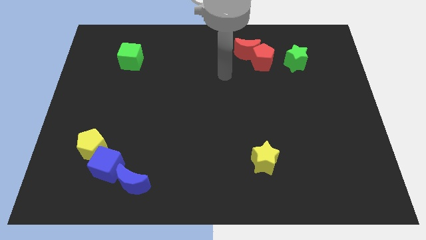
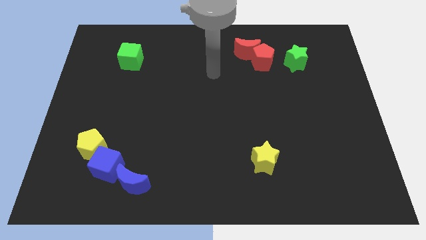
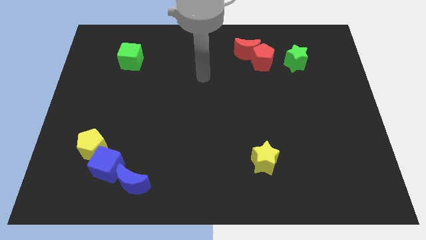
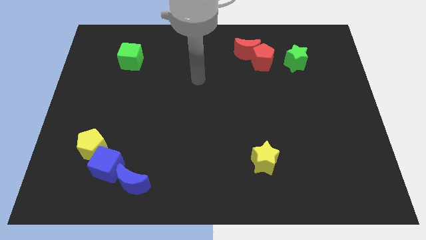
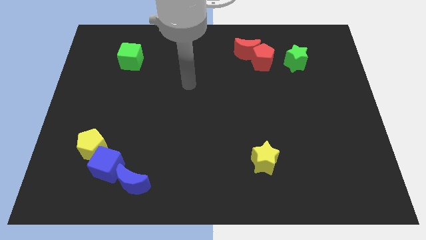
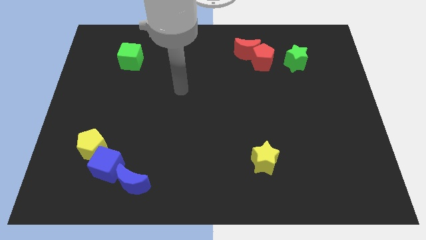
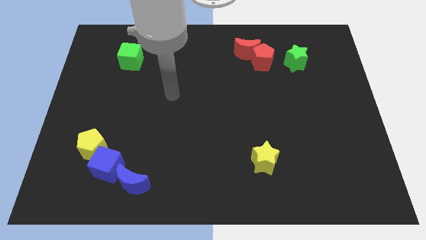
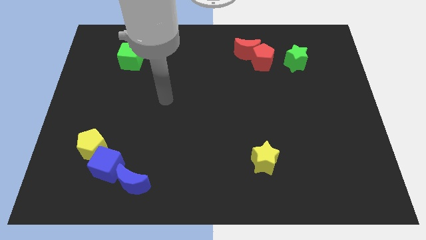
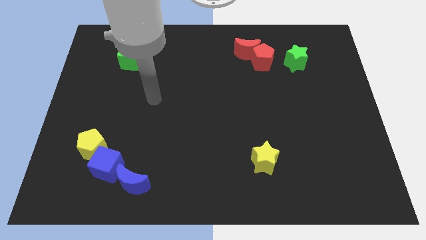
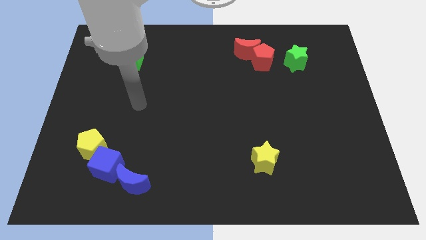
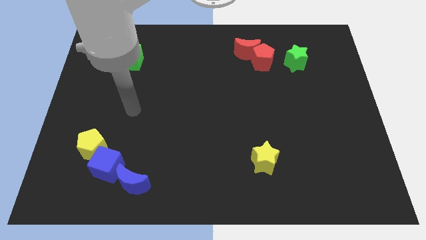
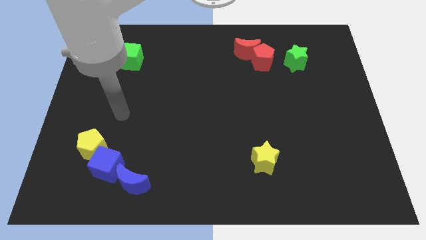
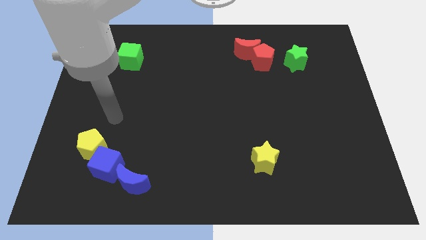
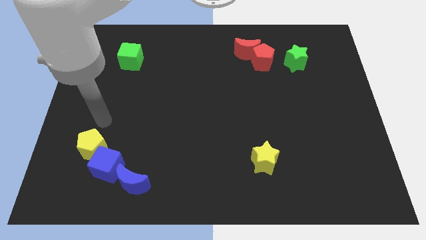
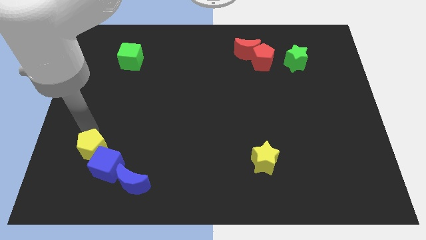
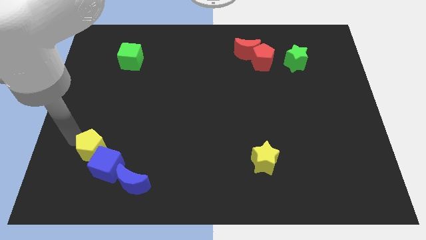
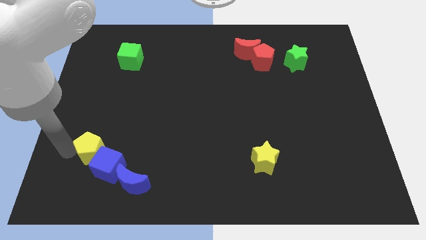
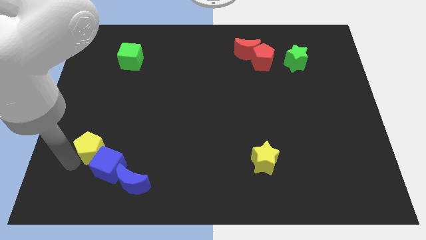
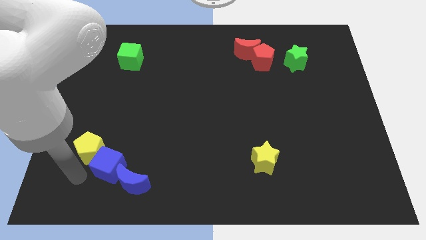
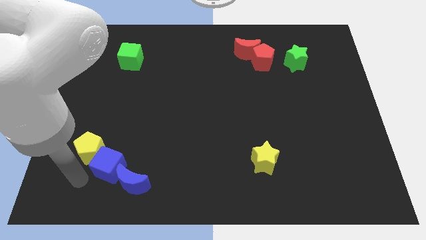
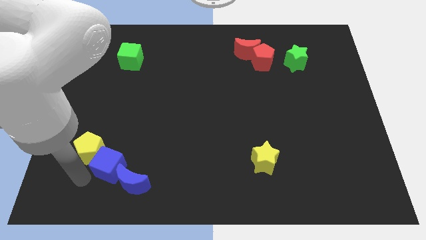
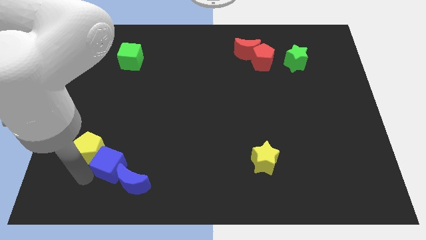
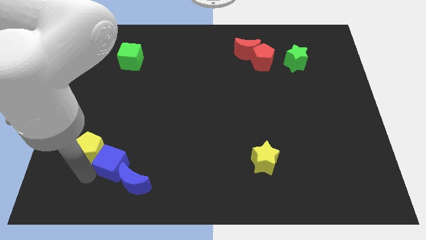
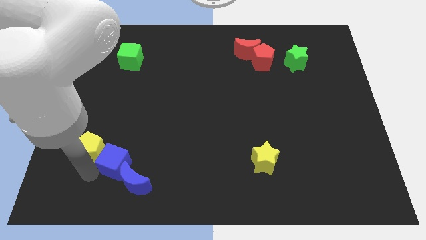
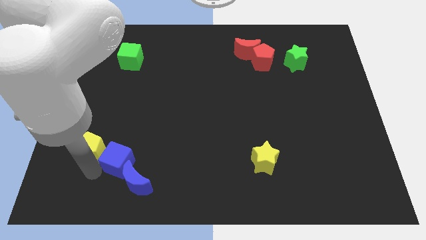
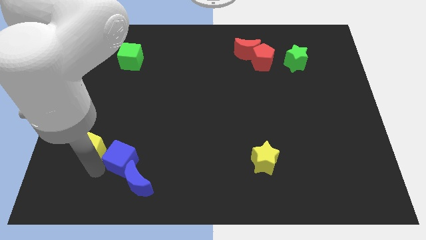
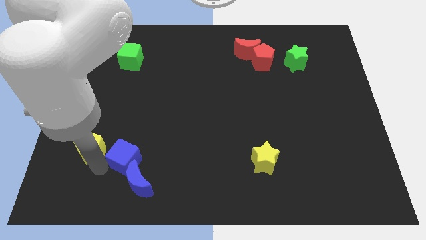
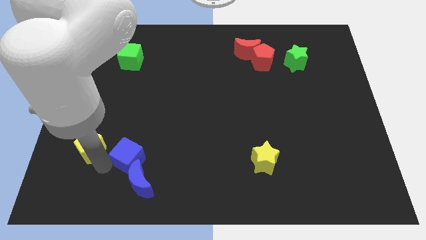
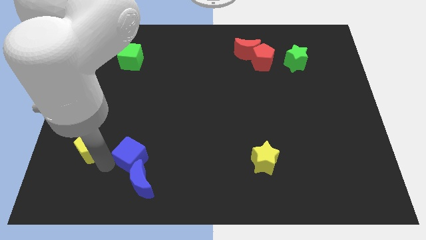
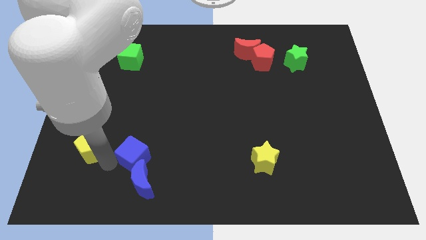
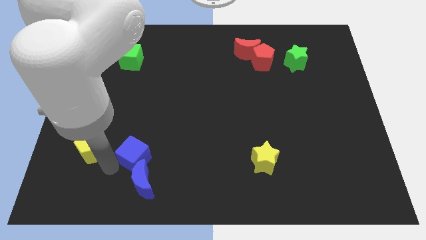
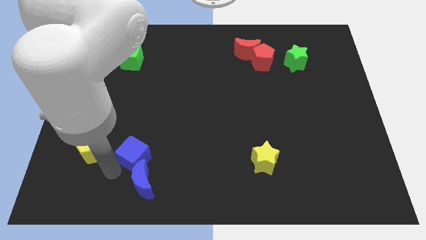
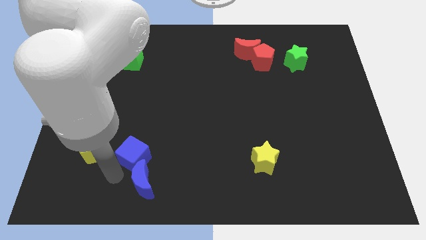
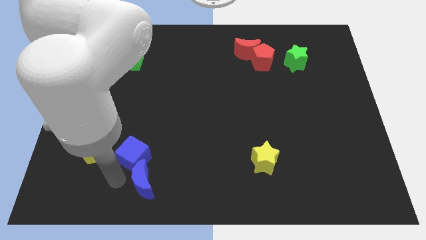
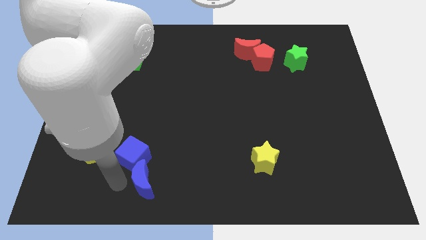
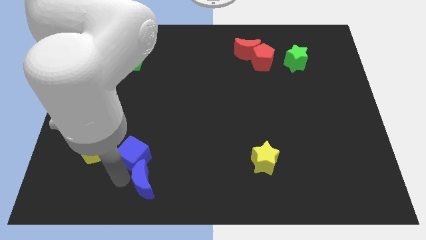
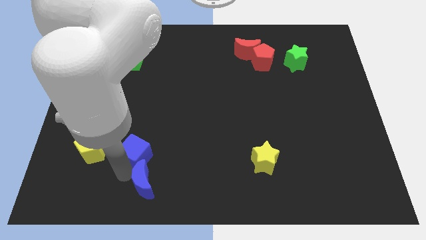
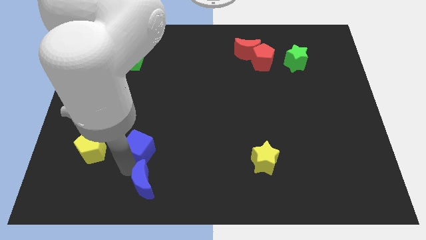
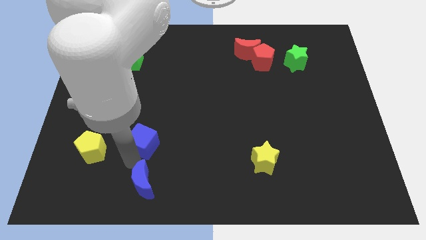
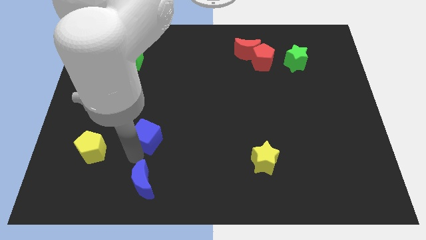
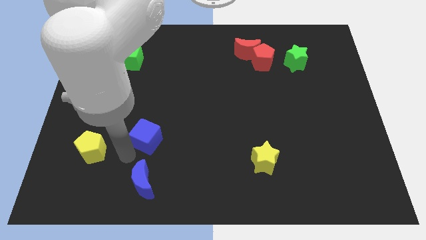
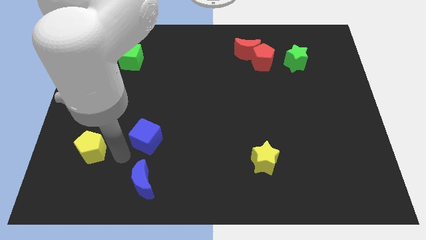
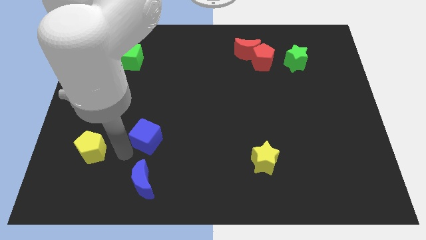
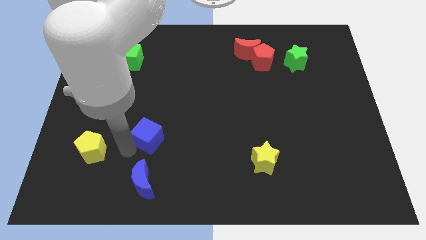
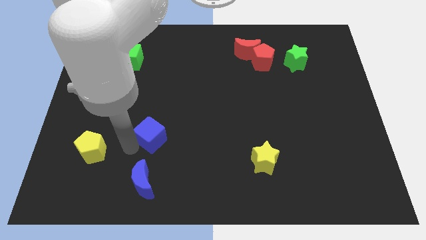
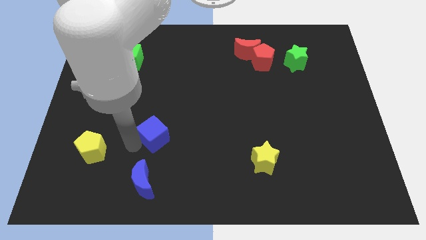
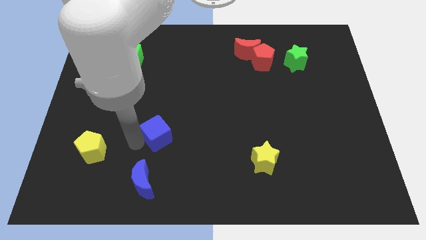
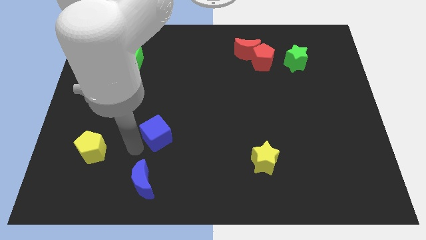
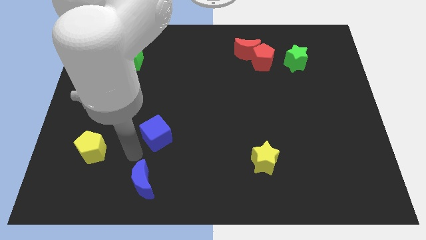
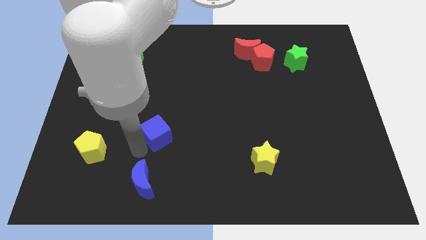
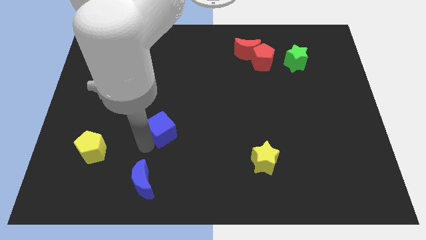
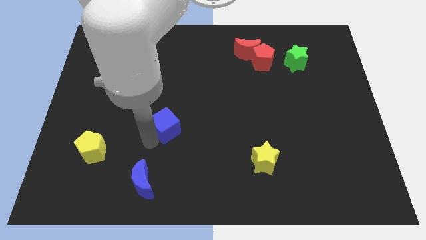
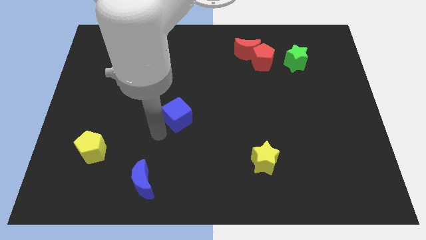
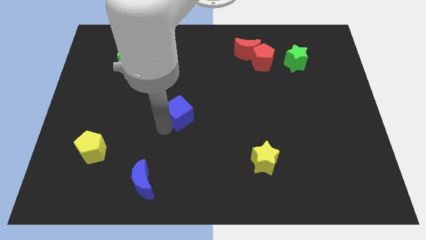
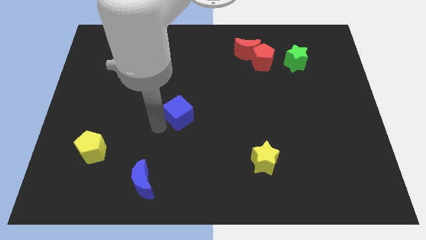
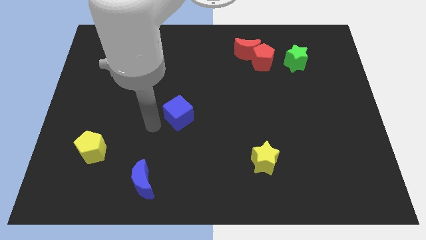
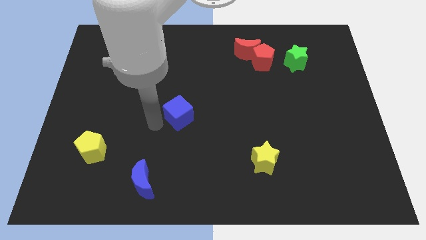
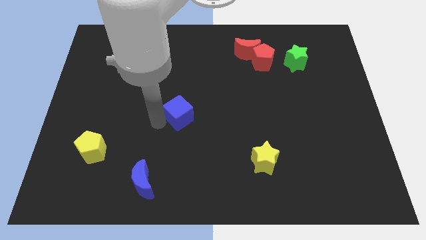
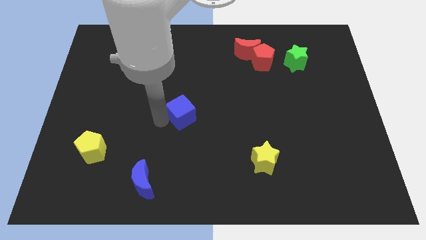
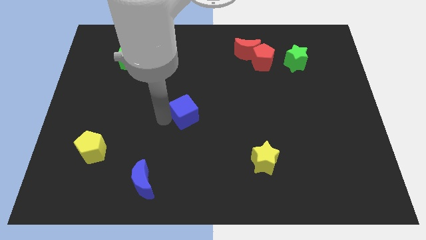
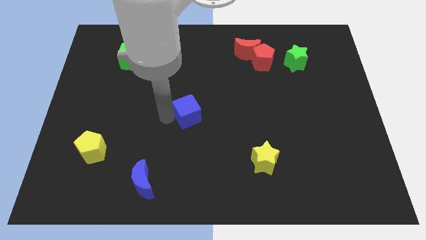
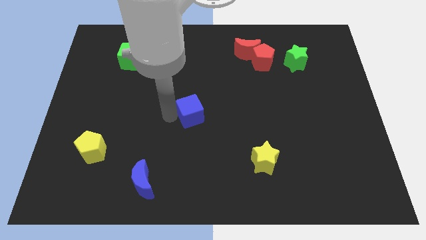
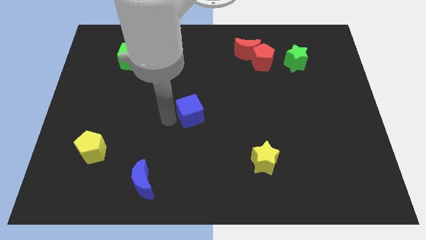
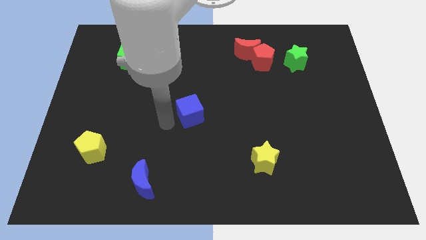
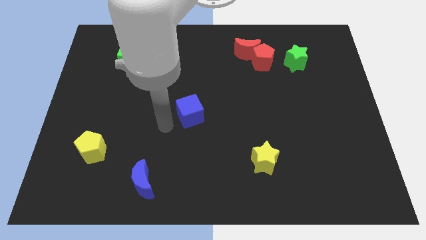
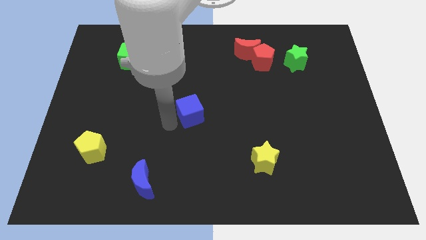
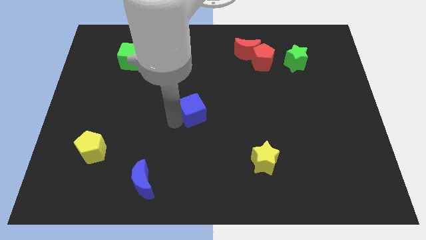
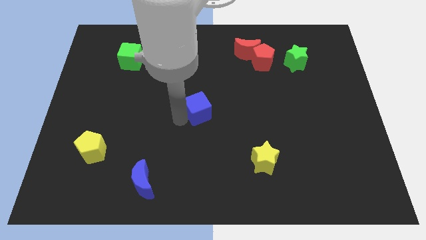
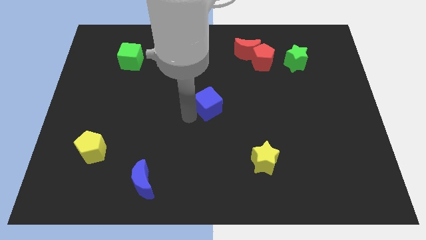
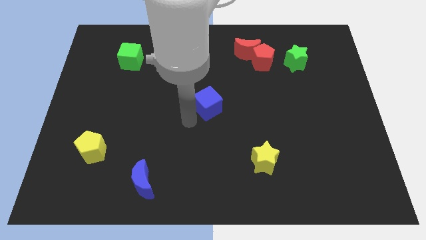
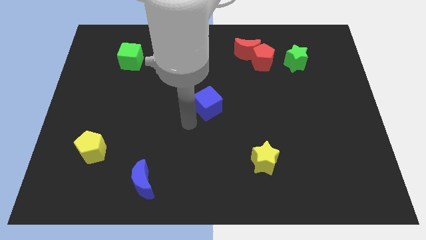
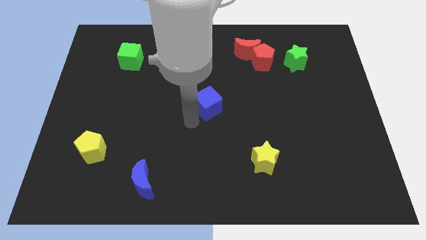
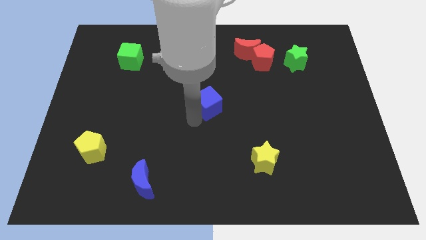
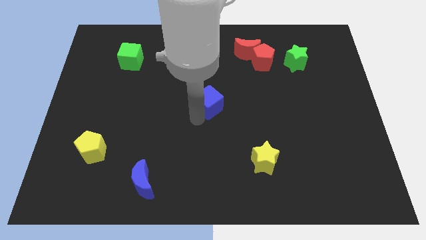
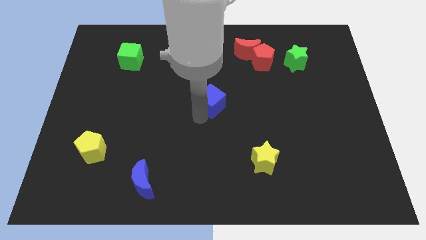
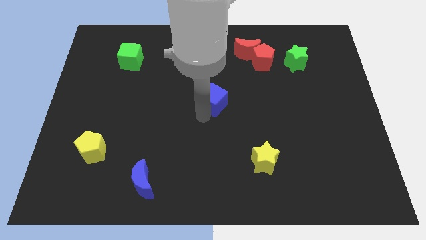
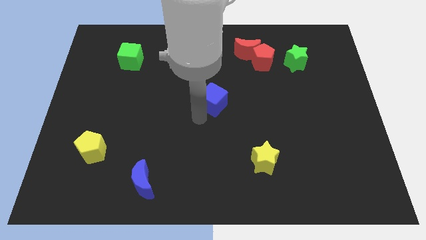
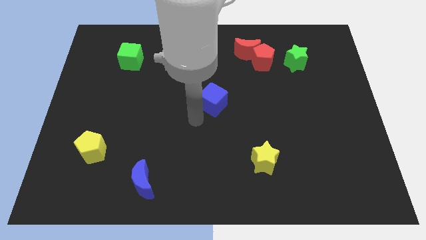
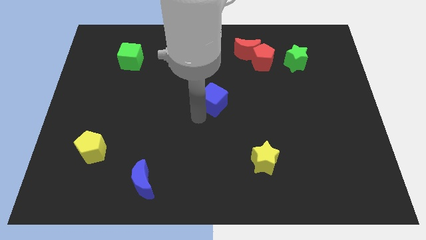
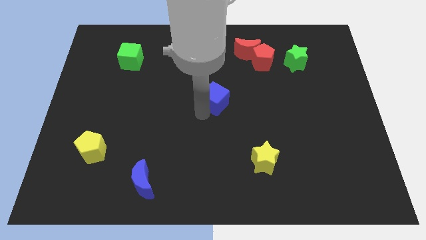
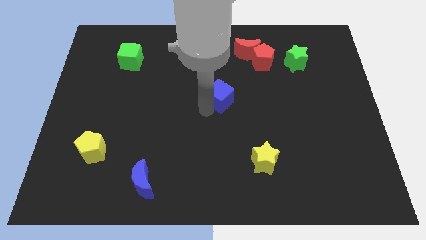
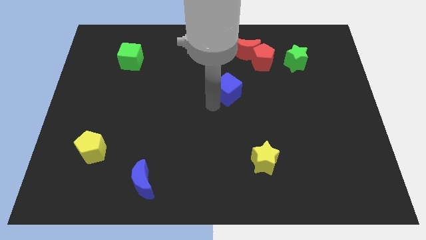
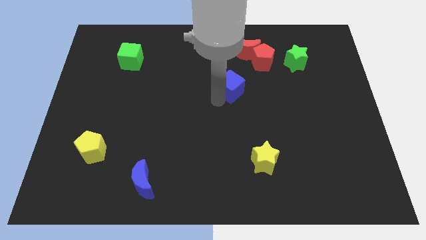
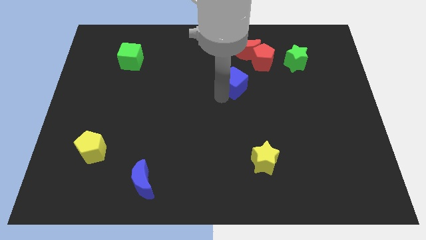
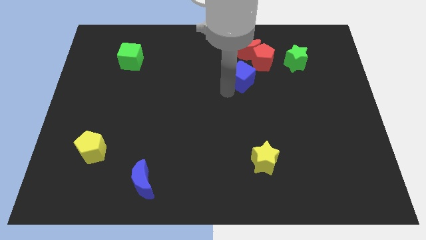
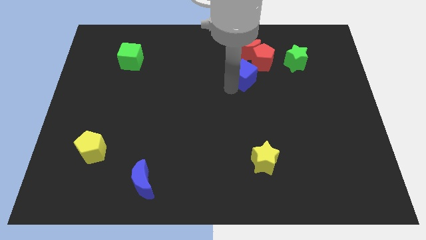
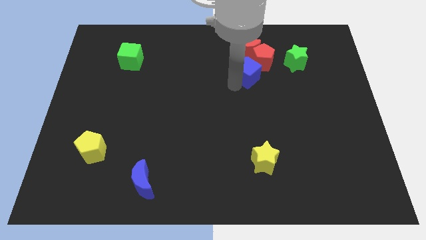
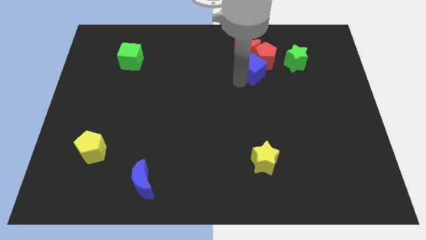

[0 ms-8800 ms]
push the blue cube next to the red pentagon
